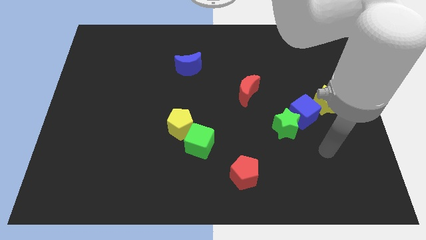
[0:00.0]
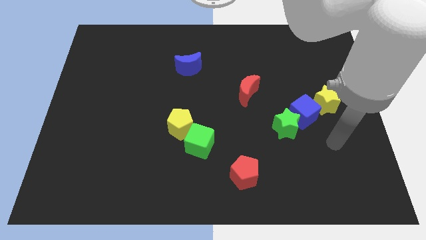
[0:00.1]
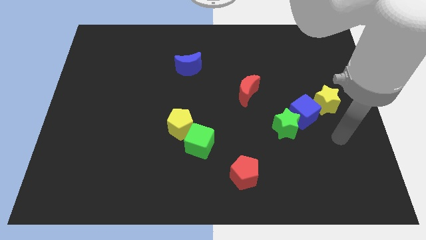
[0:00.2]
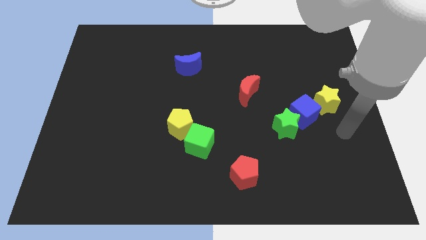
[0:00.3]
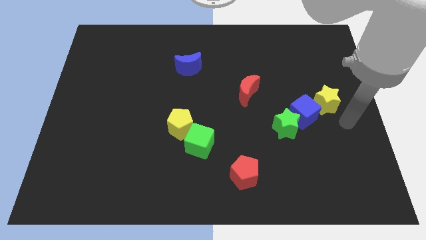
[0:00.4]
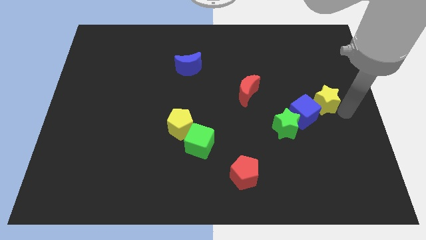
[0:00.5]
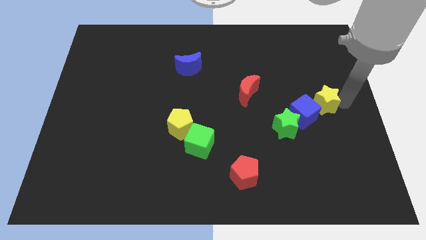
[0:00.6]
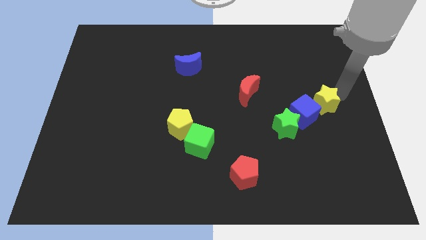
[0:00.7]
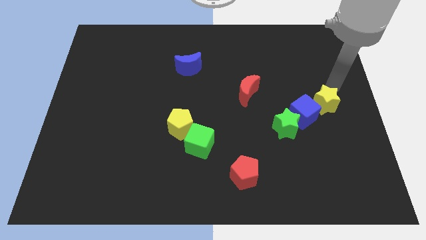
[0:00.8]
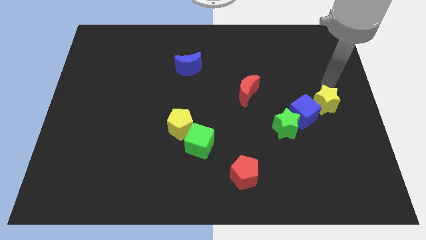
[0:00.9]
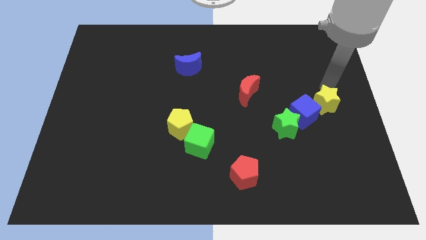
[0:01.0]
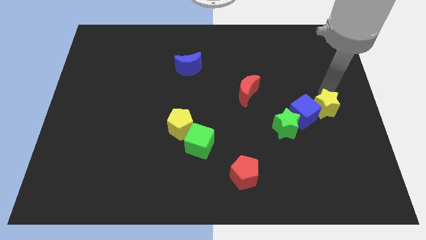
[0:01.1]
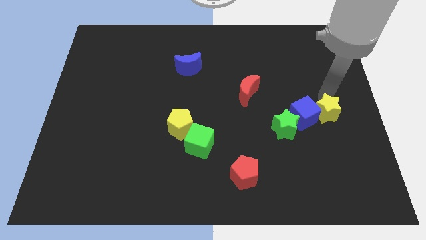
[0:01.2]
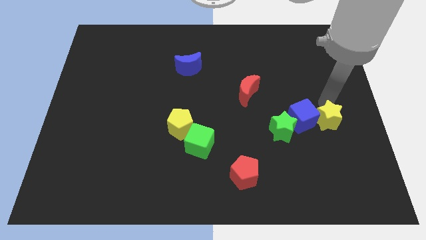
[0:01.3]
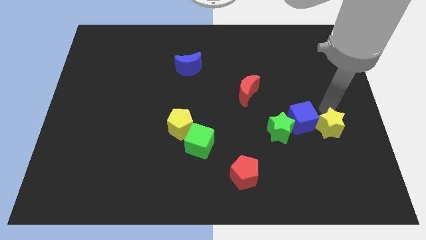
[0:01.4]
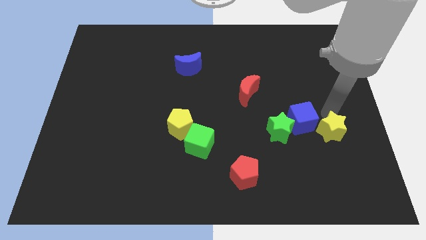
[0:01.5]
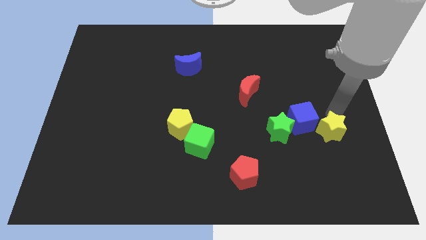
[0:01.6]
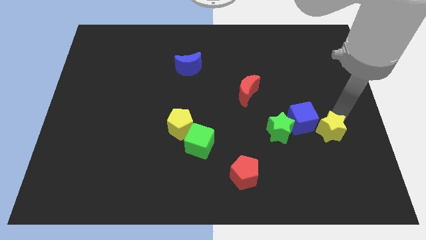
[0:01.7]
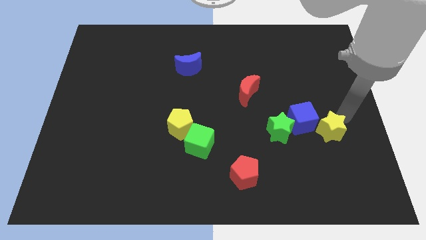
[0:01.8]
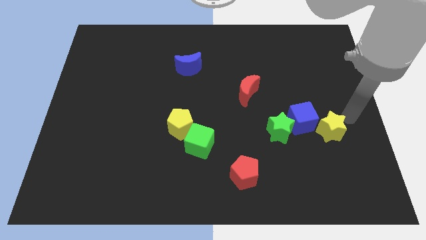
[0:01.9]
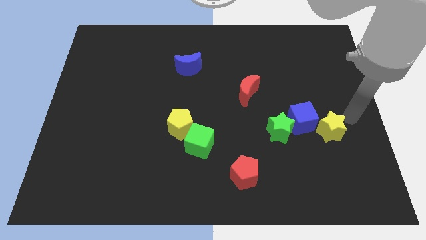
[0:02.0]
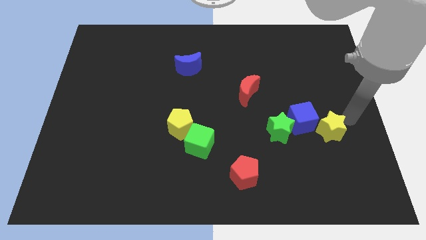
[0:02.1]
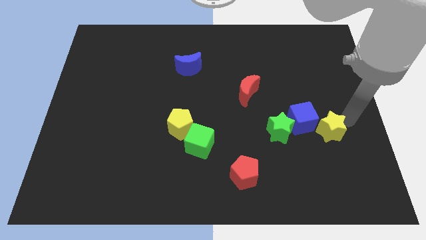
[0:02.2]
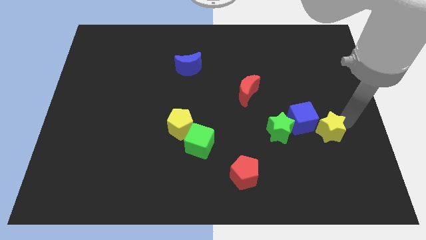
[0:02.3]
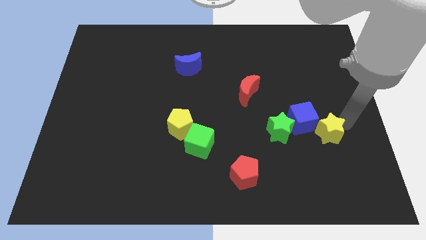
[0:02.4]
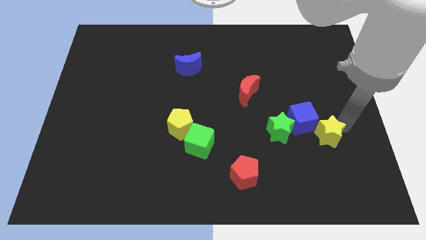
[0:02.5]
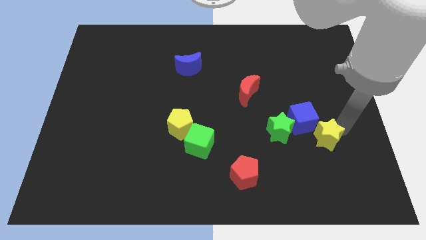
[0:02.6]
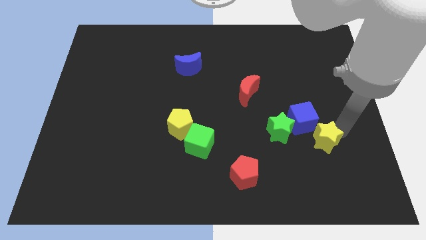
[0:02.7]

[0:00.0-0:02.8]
slide the yellow star somewhat diagonally down and left

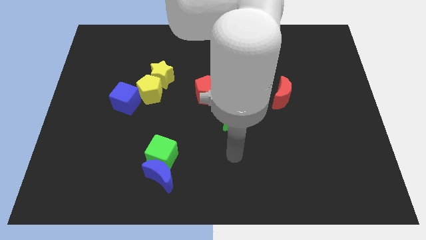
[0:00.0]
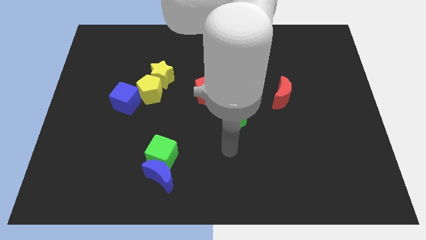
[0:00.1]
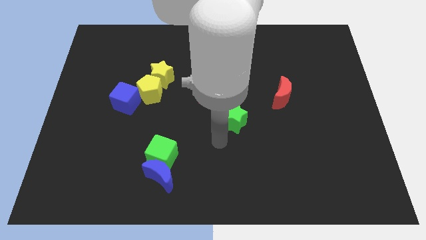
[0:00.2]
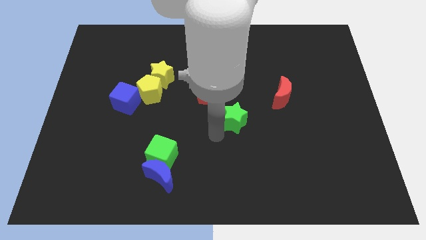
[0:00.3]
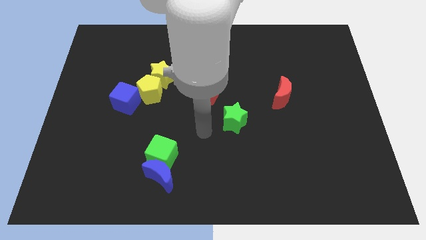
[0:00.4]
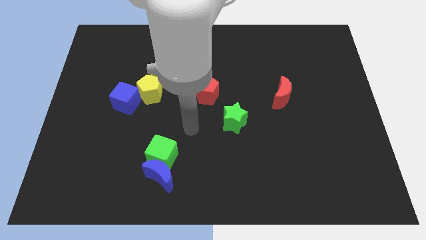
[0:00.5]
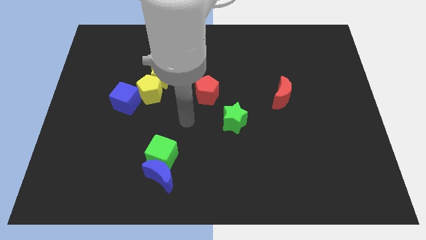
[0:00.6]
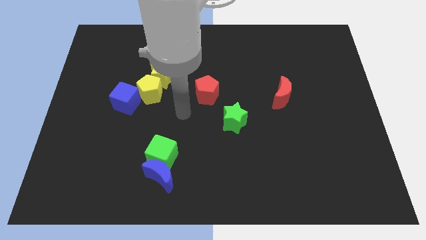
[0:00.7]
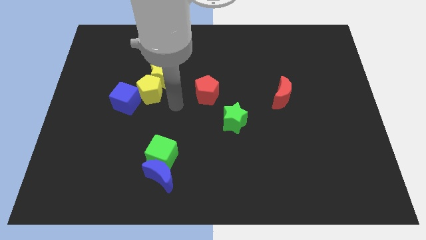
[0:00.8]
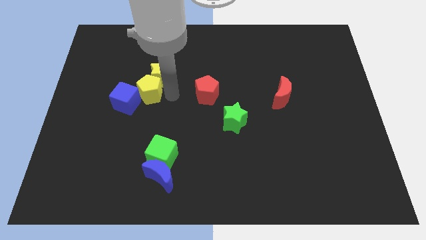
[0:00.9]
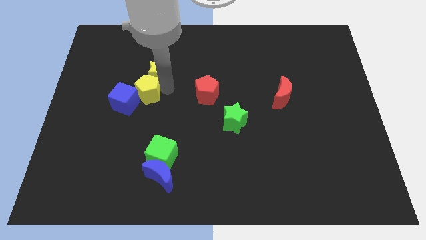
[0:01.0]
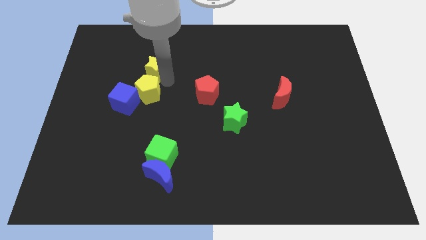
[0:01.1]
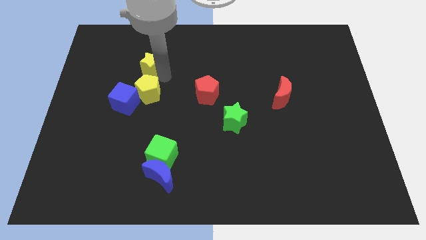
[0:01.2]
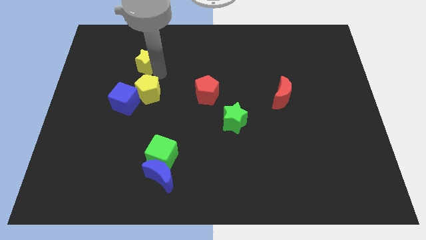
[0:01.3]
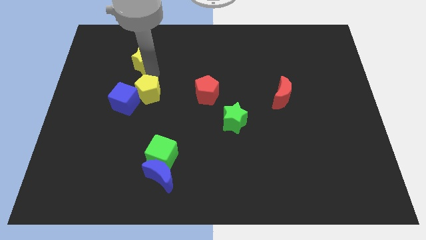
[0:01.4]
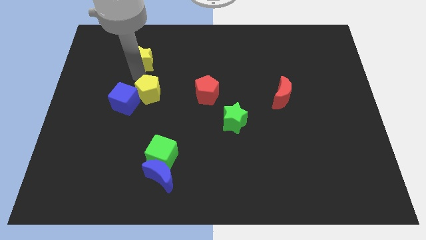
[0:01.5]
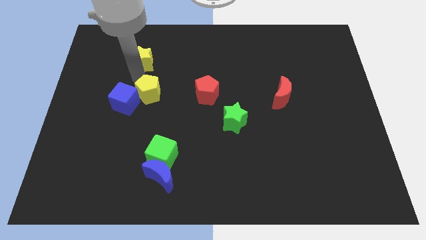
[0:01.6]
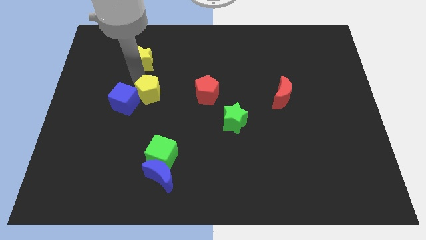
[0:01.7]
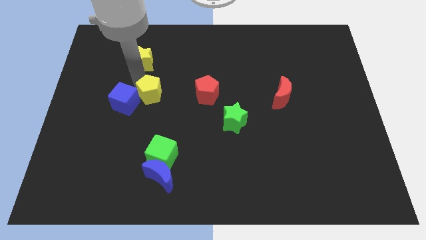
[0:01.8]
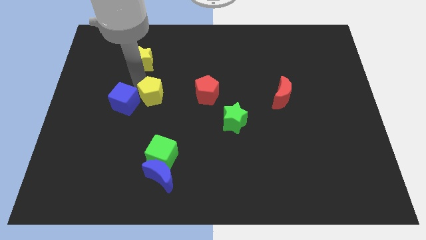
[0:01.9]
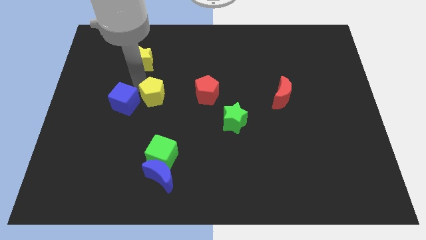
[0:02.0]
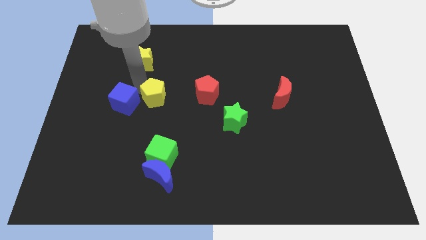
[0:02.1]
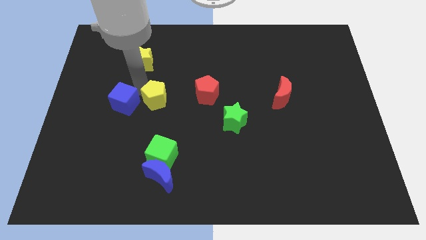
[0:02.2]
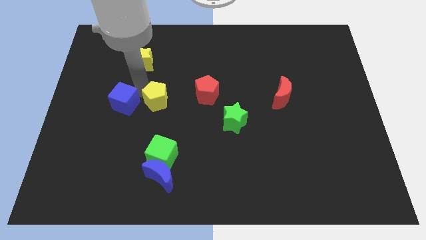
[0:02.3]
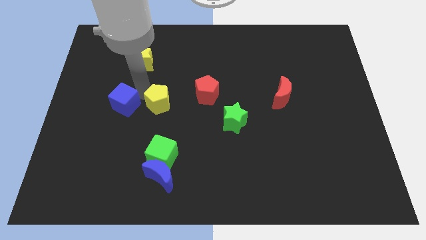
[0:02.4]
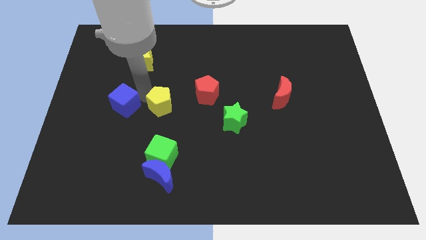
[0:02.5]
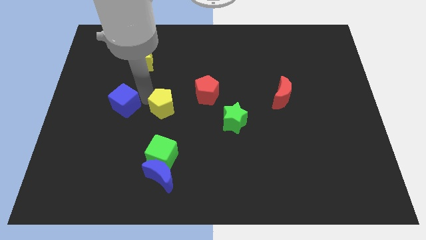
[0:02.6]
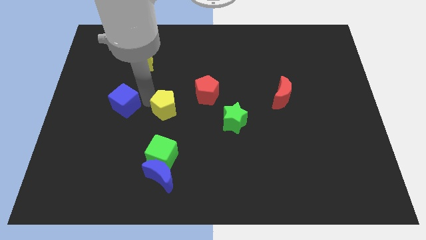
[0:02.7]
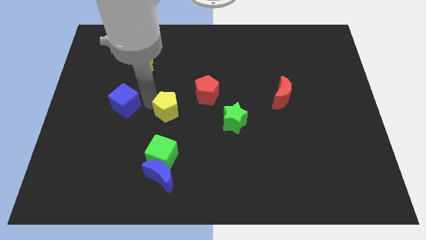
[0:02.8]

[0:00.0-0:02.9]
slightly slide the yellow pentagon downwards and right diagonally

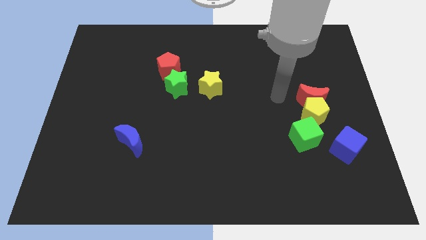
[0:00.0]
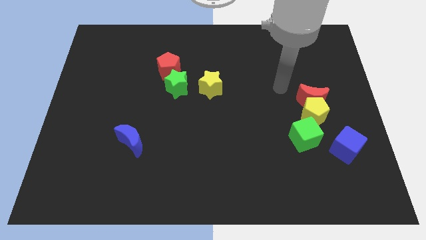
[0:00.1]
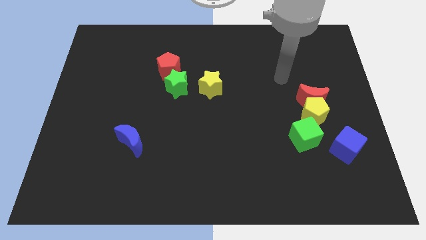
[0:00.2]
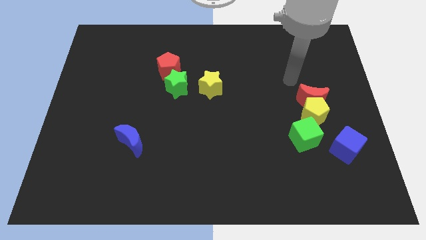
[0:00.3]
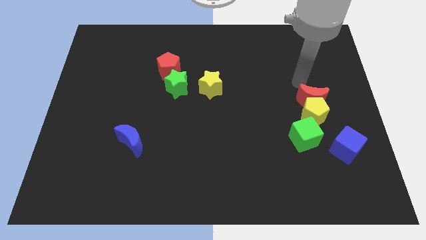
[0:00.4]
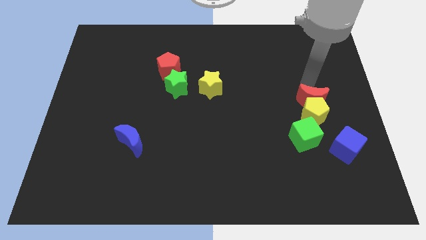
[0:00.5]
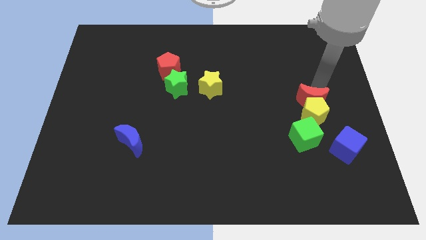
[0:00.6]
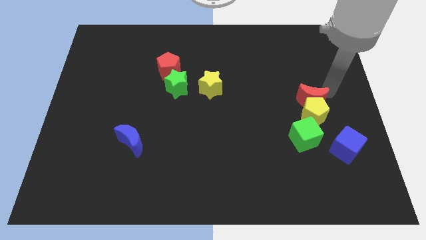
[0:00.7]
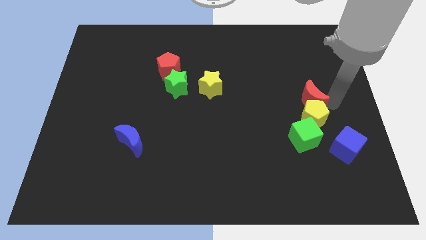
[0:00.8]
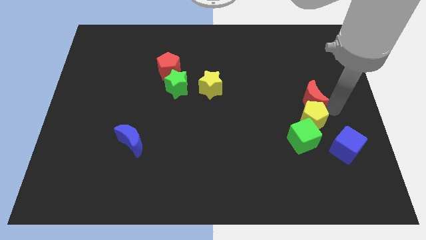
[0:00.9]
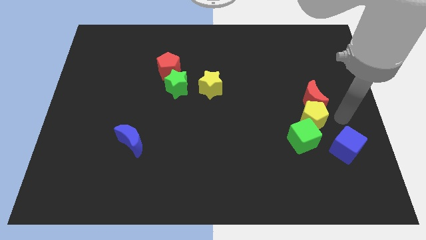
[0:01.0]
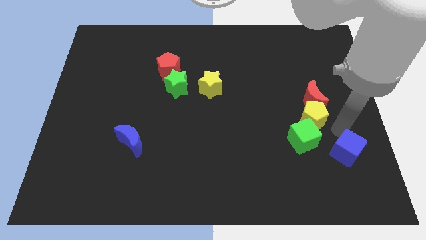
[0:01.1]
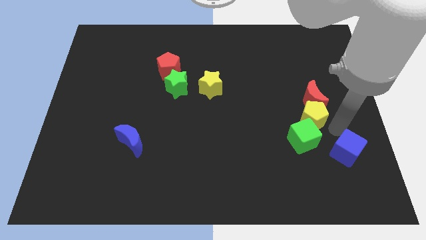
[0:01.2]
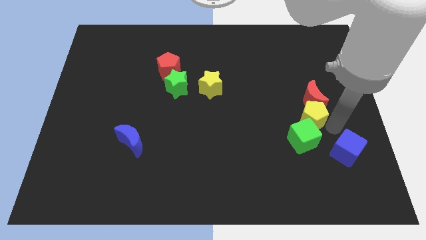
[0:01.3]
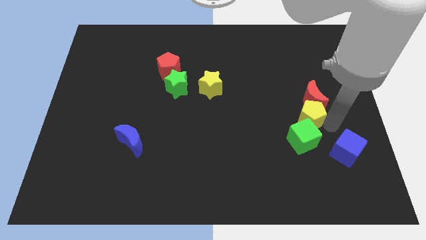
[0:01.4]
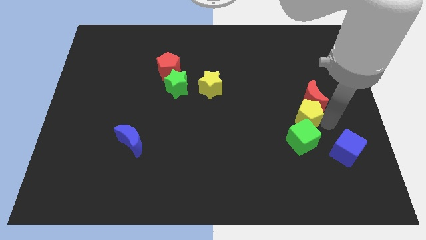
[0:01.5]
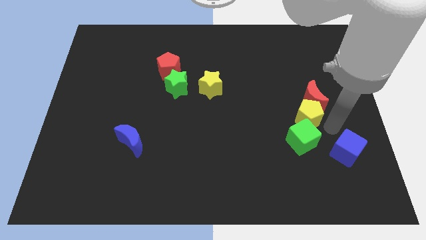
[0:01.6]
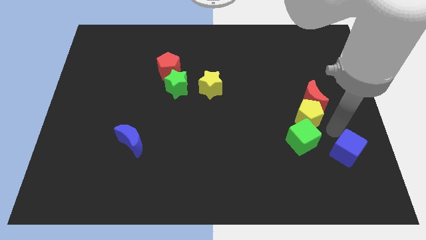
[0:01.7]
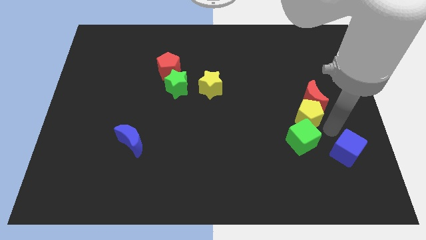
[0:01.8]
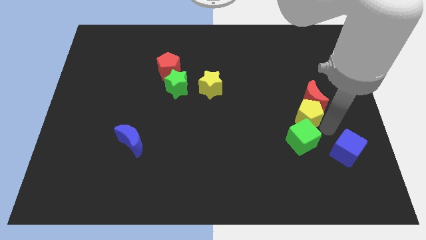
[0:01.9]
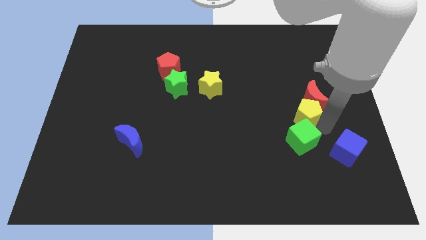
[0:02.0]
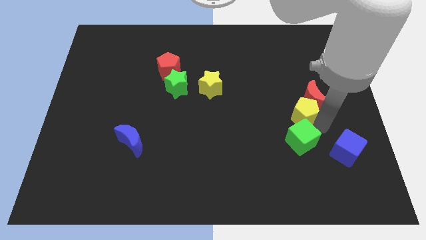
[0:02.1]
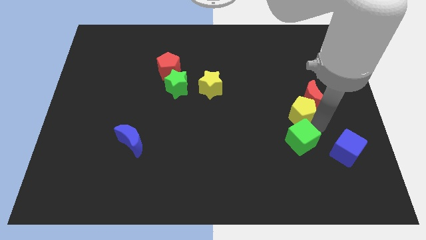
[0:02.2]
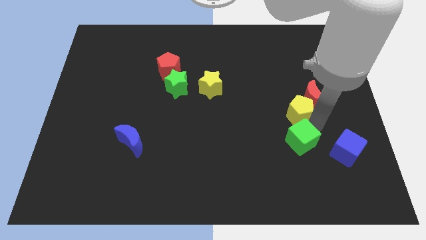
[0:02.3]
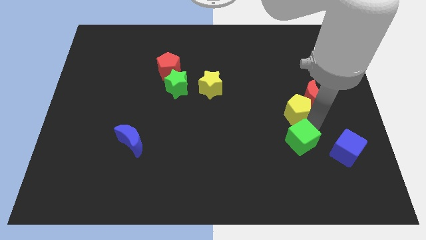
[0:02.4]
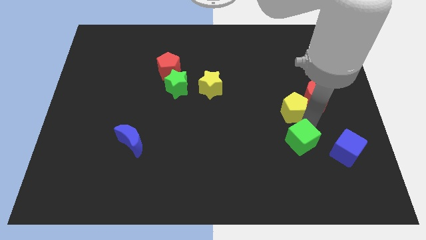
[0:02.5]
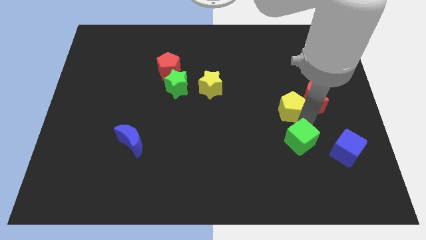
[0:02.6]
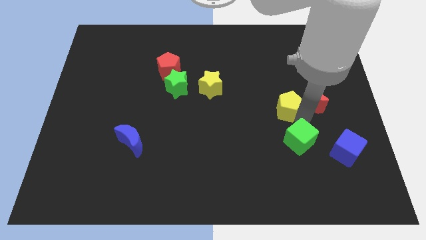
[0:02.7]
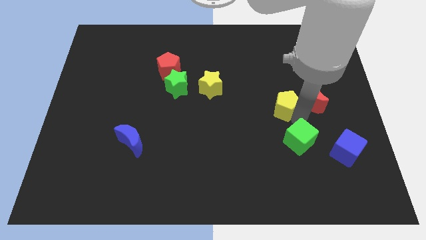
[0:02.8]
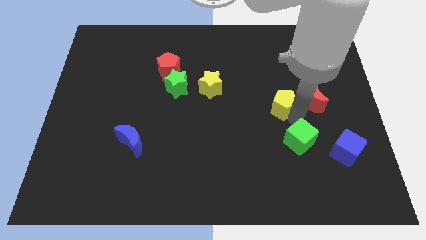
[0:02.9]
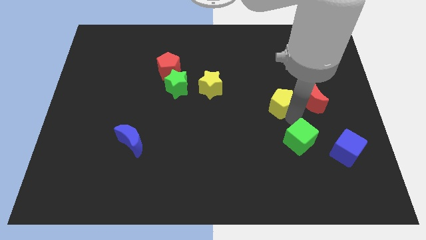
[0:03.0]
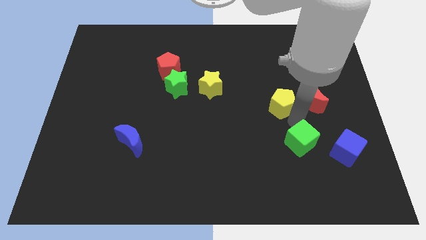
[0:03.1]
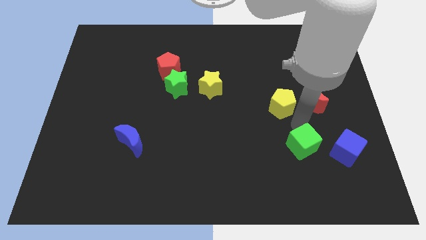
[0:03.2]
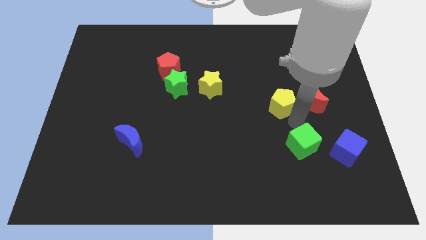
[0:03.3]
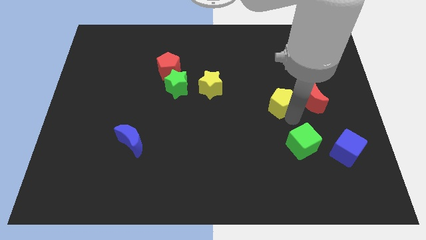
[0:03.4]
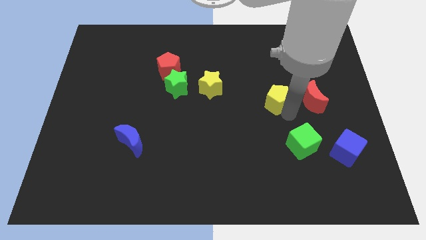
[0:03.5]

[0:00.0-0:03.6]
move the yellow pentagon diagonally up and left somewhat
